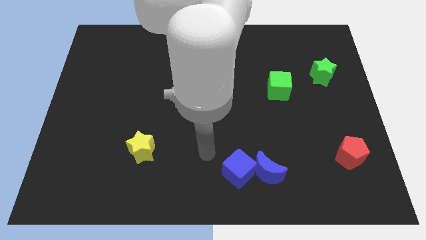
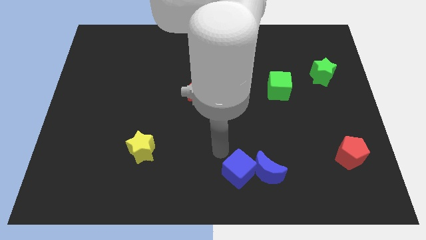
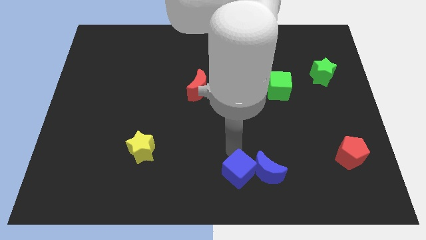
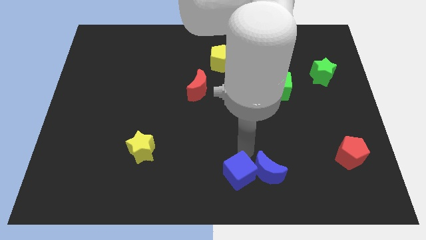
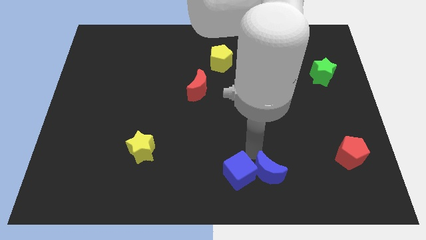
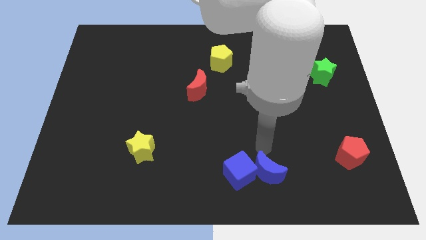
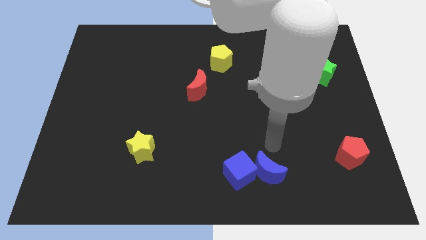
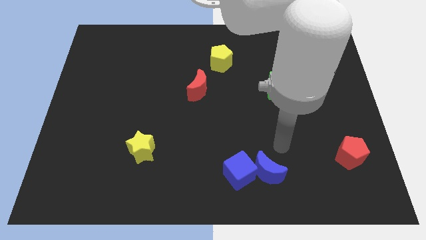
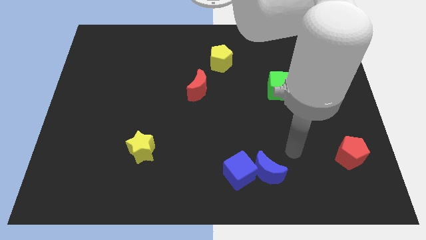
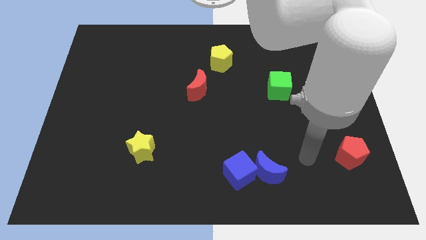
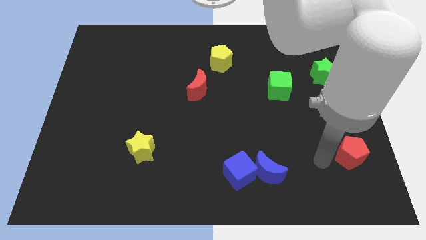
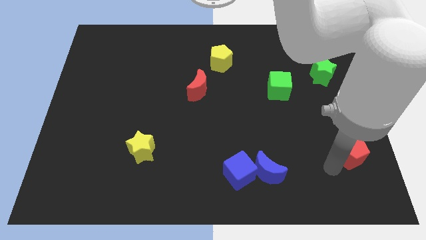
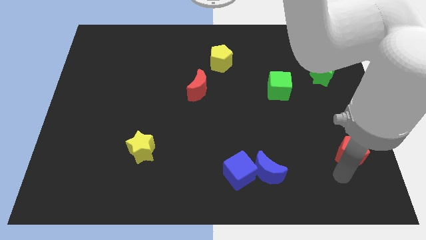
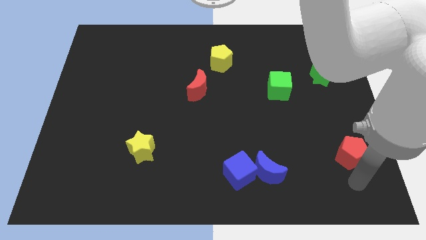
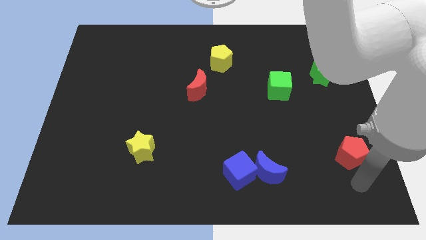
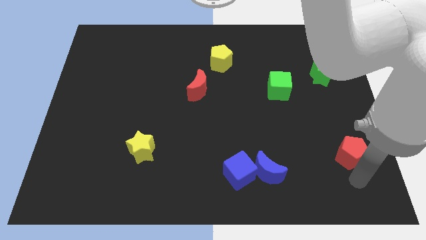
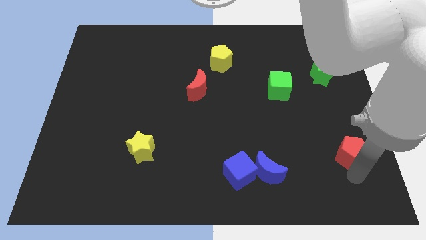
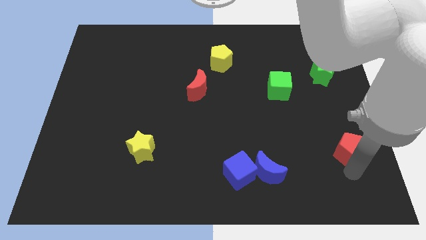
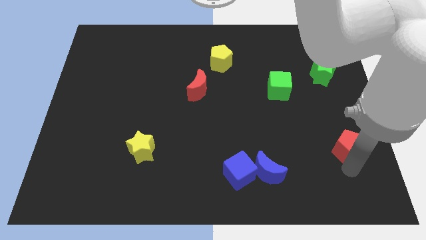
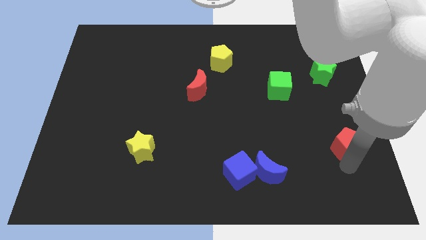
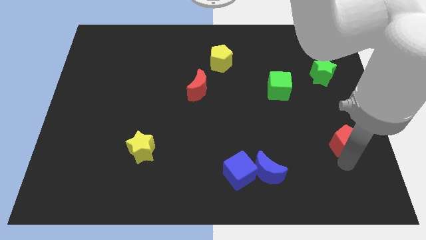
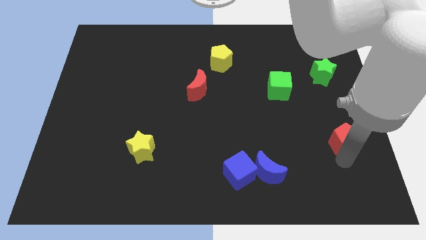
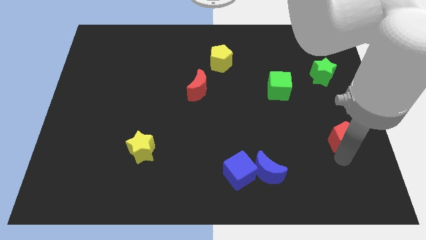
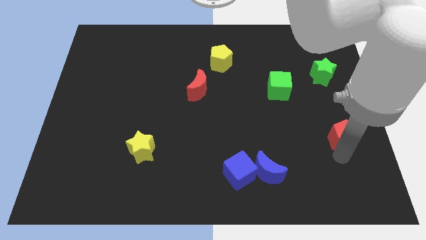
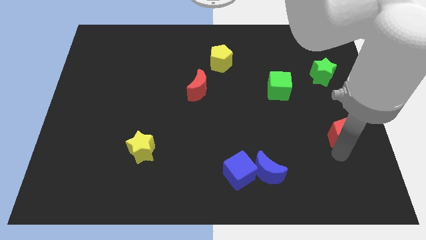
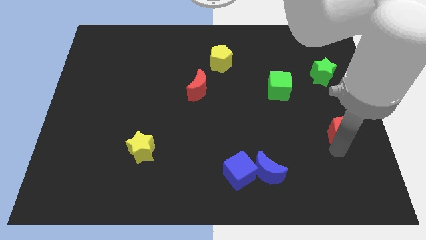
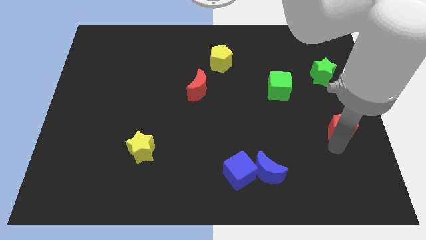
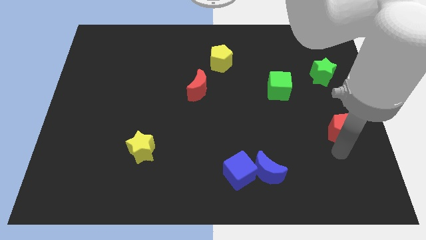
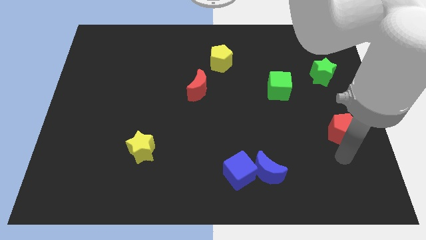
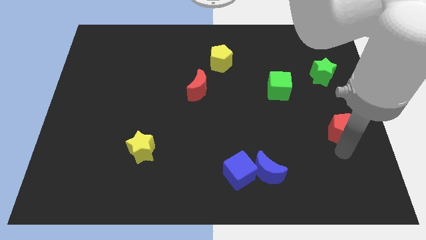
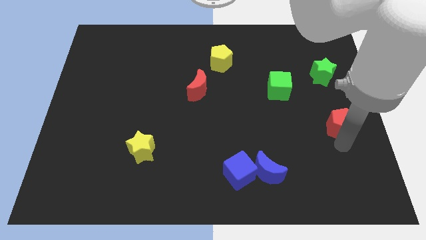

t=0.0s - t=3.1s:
slide the red pentagon somewhat upwards

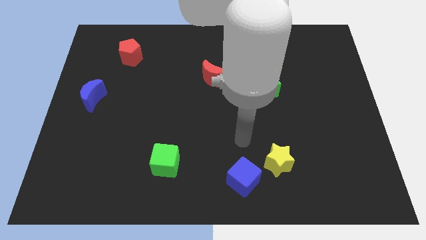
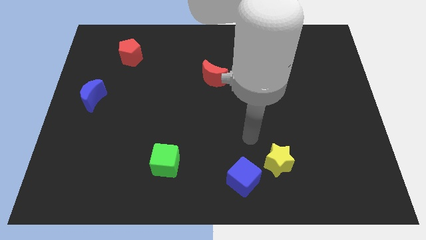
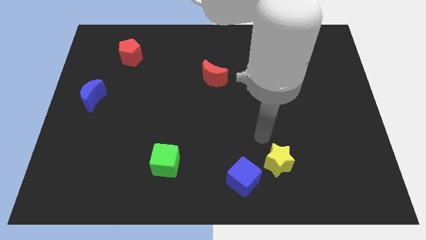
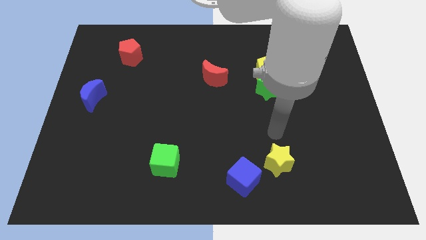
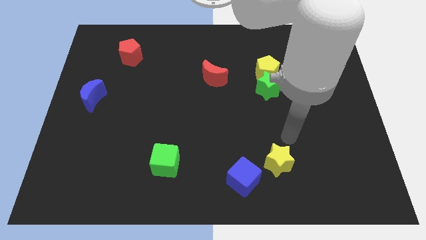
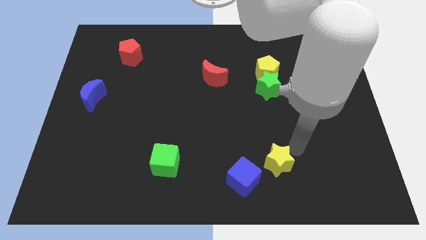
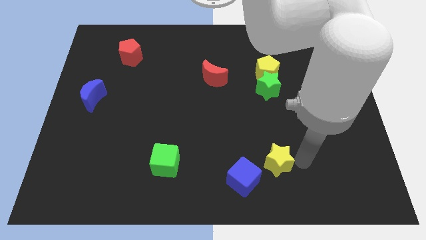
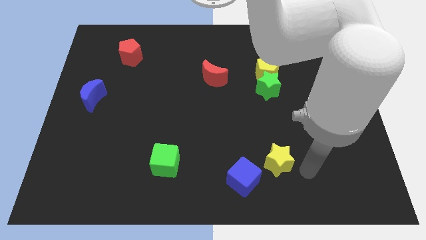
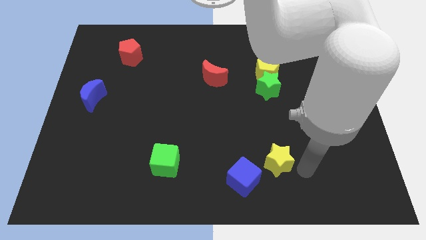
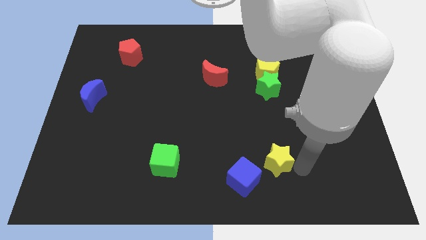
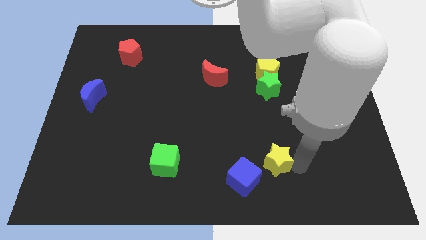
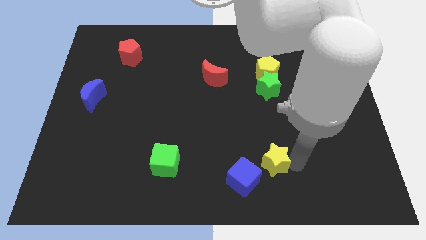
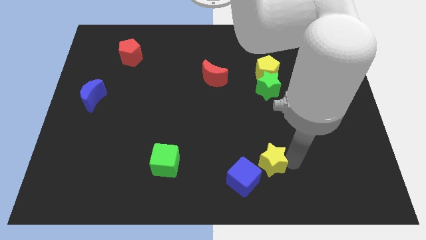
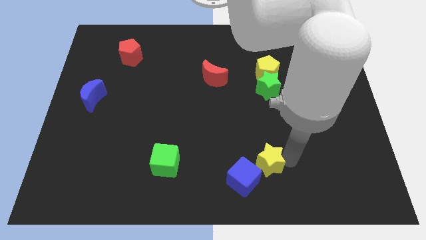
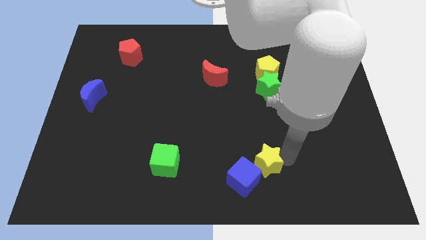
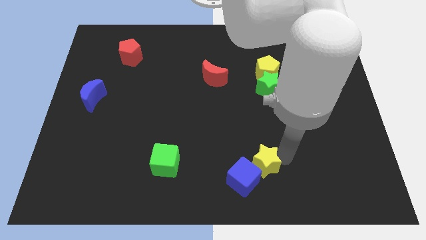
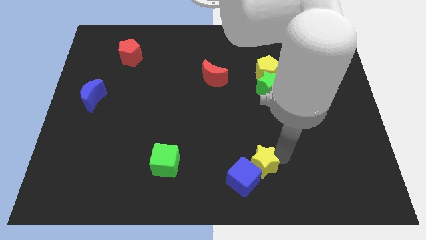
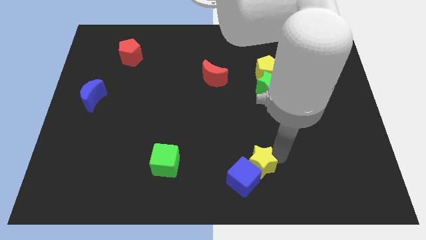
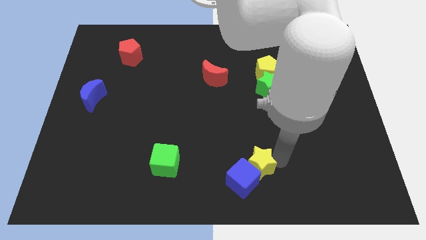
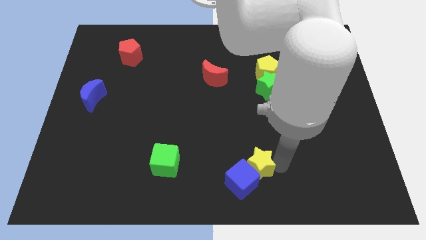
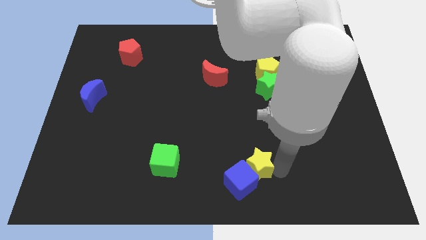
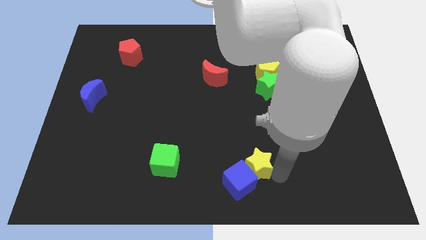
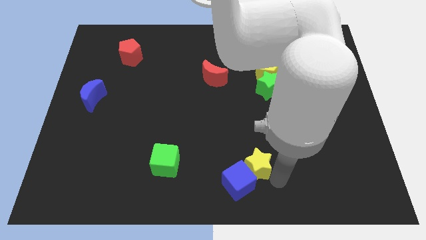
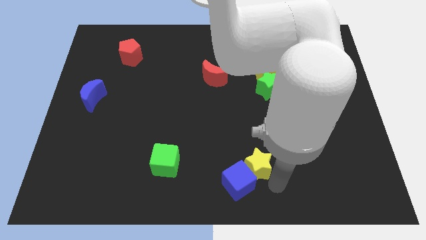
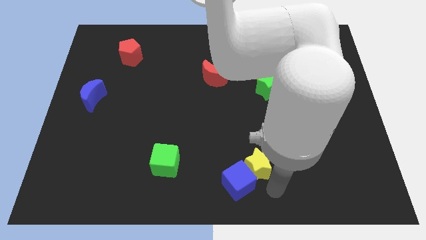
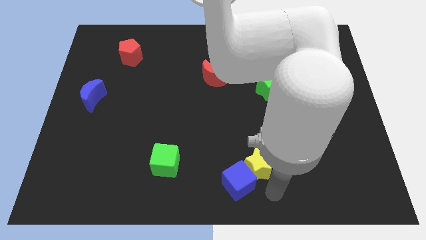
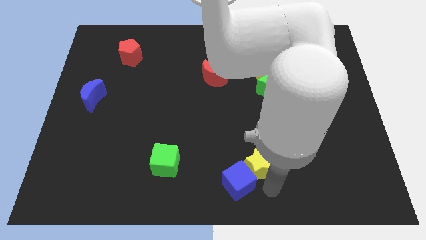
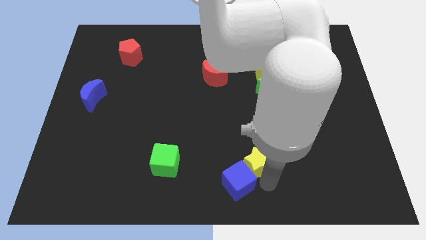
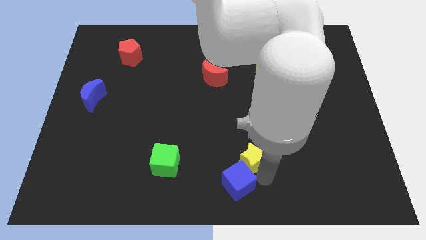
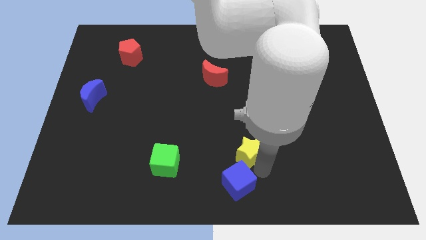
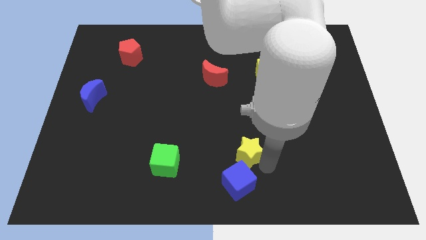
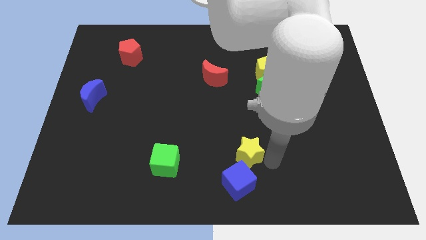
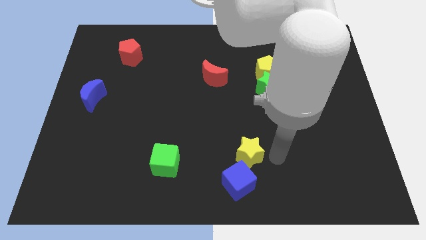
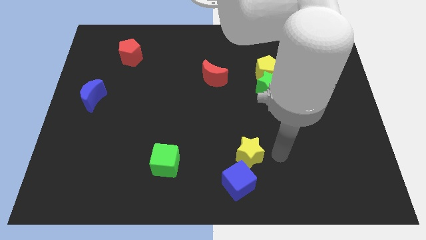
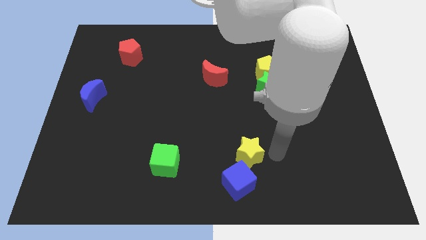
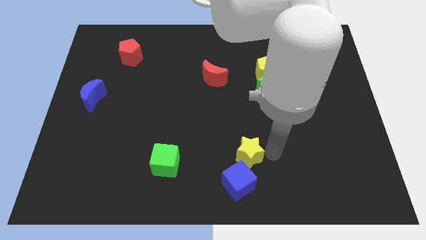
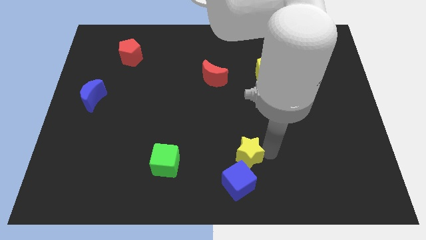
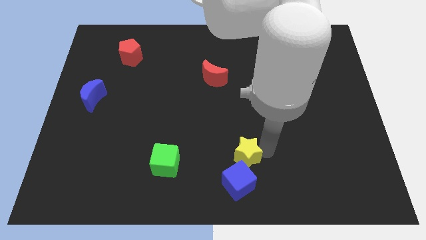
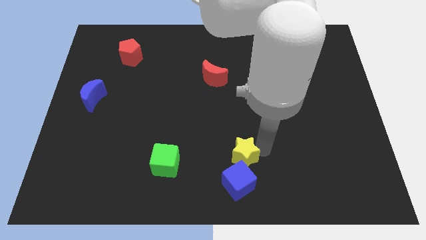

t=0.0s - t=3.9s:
slightly move the yellow star to the left

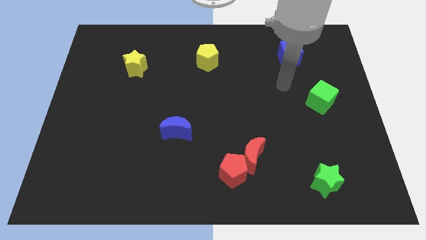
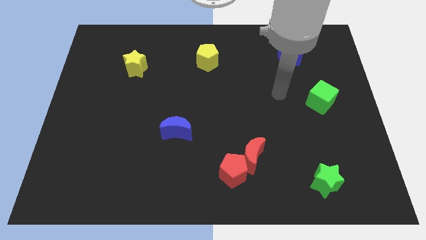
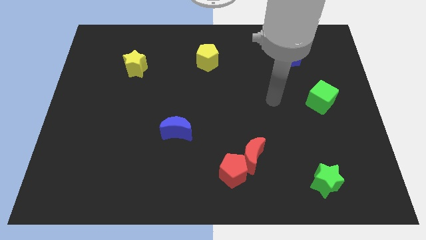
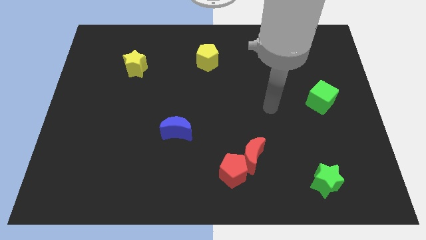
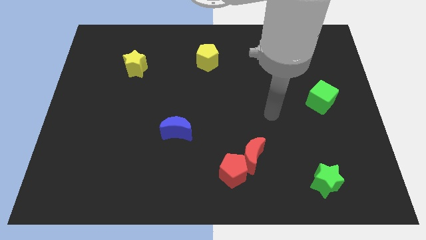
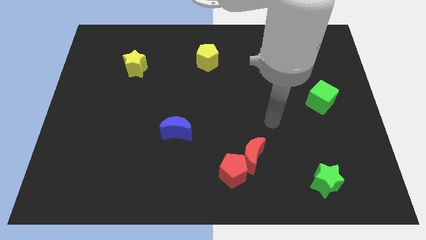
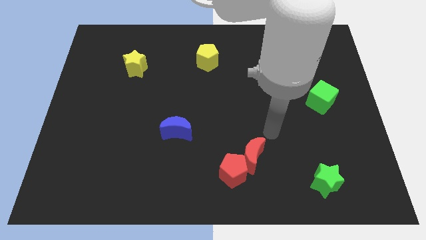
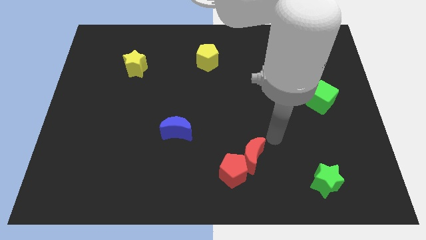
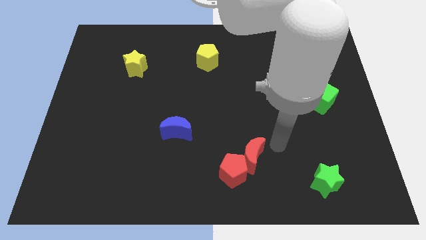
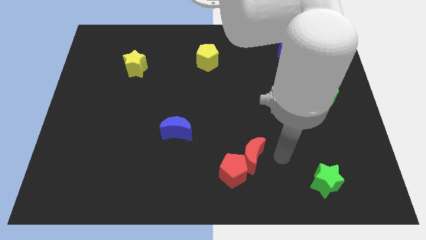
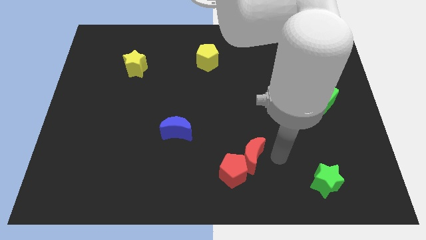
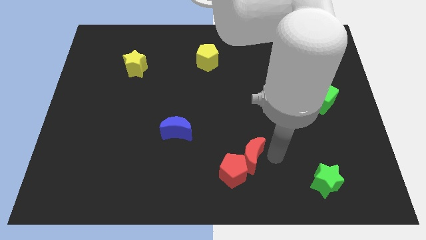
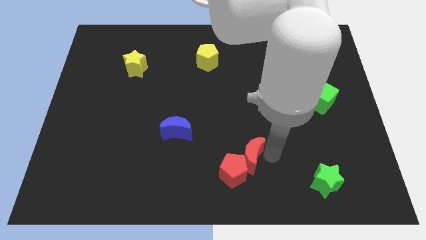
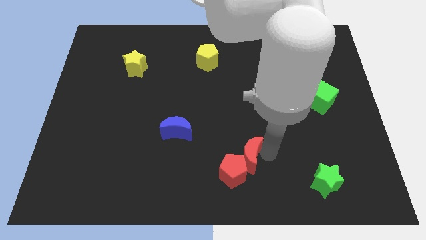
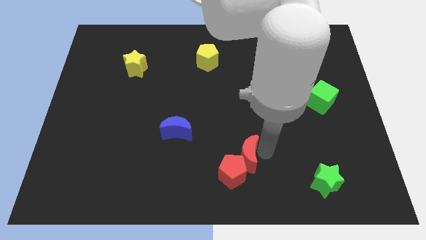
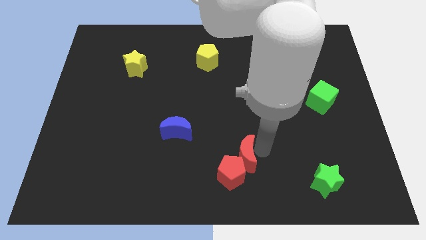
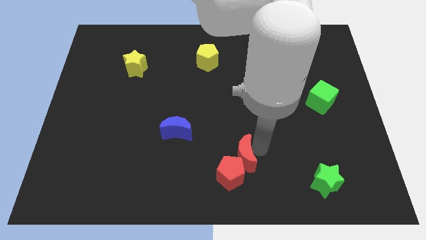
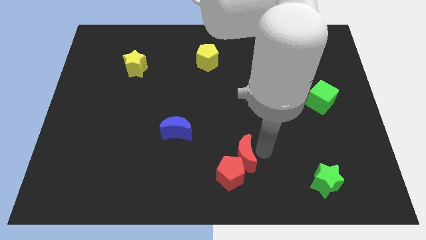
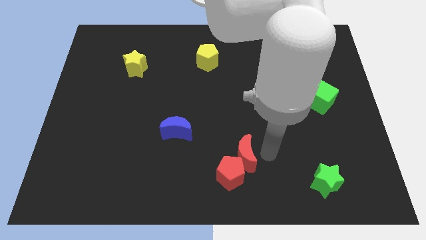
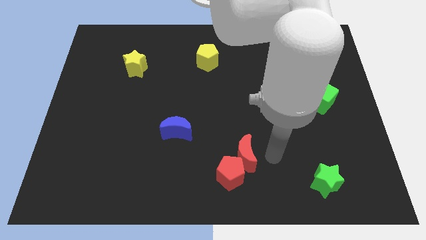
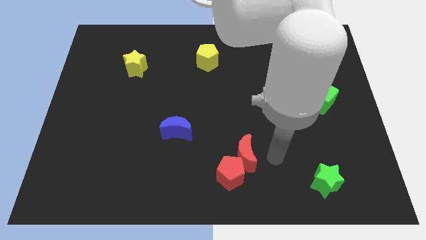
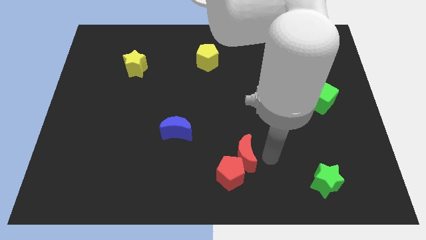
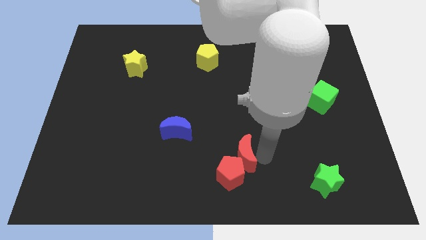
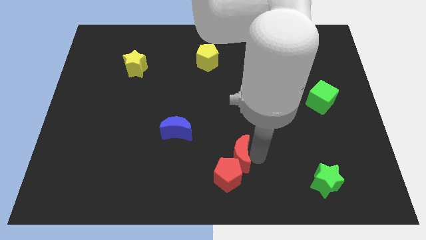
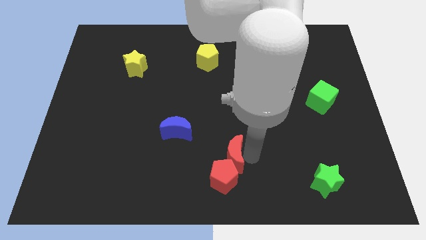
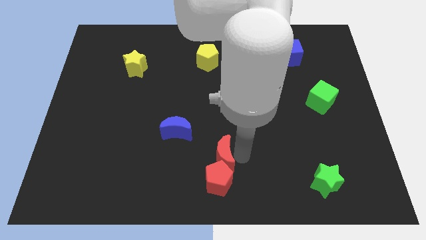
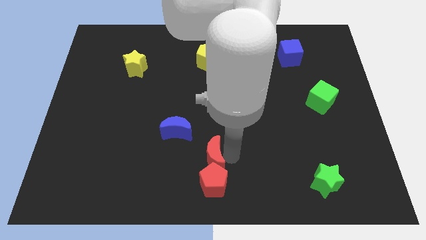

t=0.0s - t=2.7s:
slightly slide the red moon left
